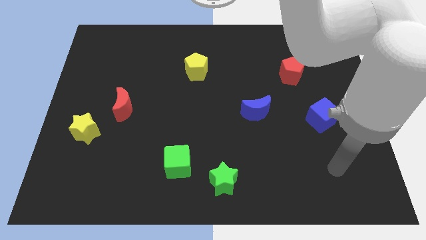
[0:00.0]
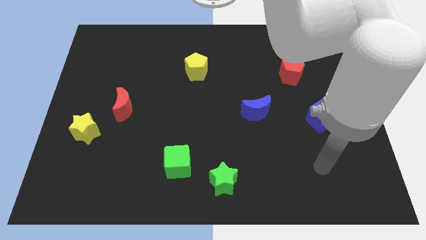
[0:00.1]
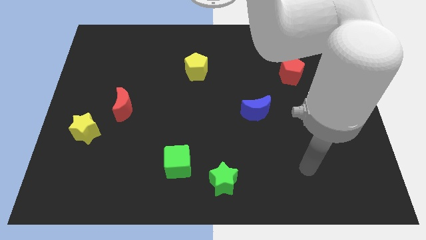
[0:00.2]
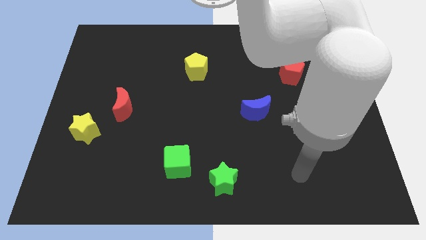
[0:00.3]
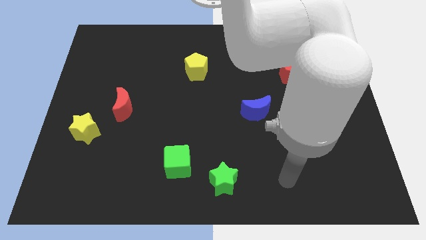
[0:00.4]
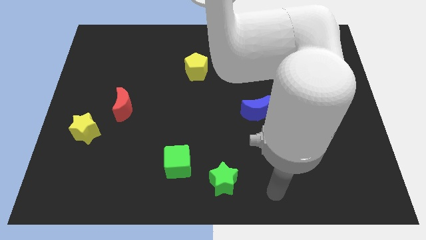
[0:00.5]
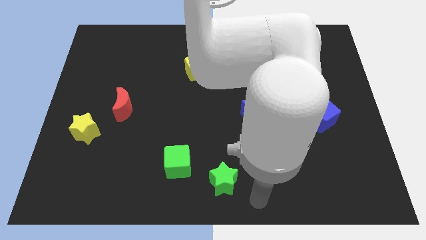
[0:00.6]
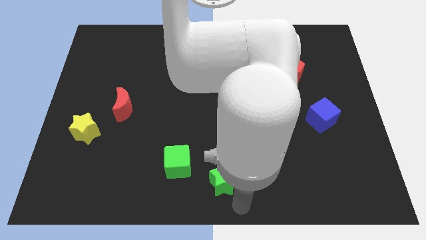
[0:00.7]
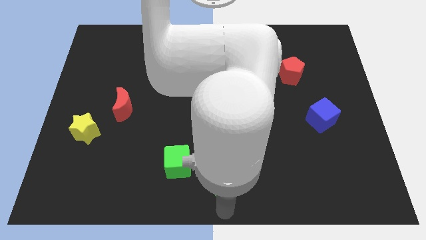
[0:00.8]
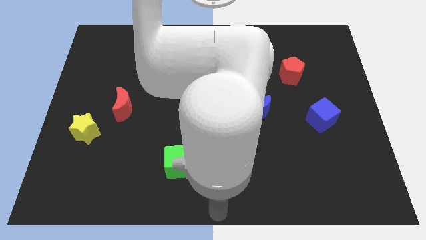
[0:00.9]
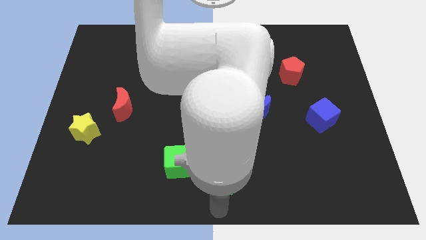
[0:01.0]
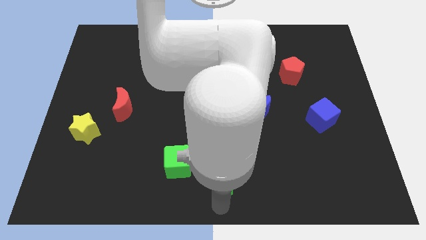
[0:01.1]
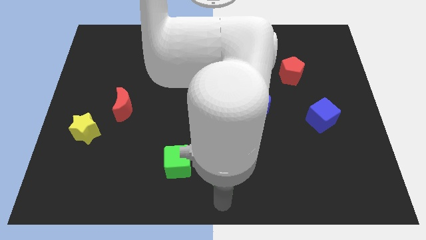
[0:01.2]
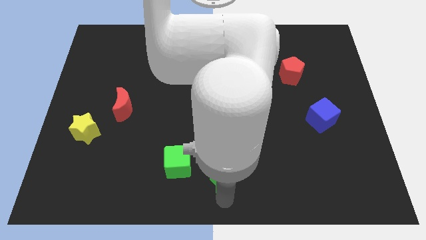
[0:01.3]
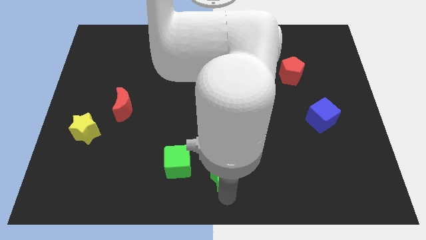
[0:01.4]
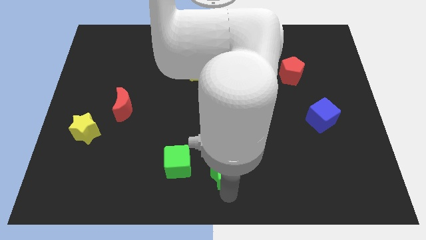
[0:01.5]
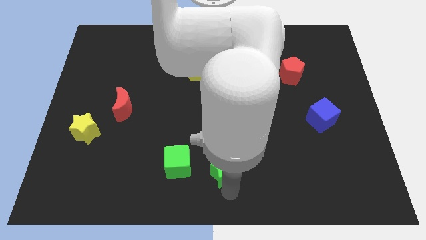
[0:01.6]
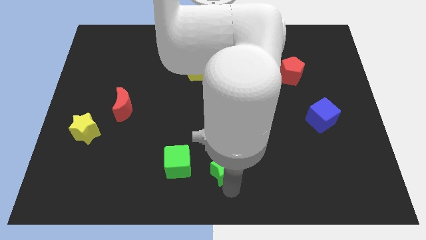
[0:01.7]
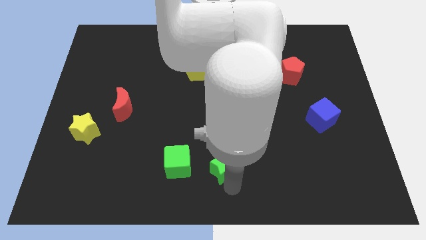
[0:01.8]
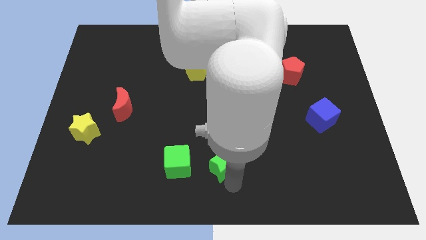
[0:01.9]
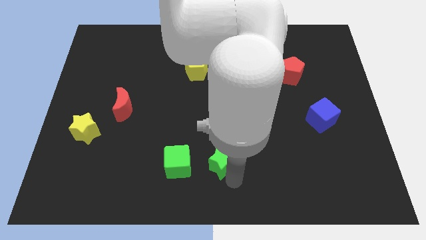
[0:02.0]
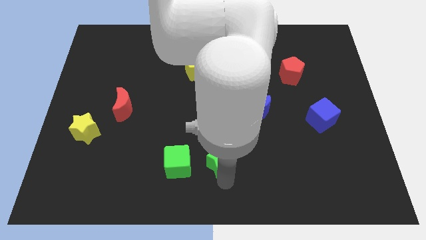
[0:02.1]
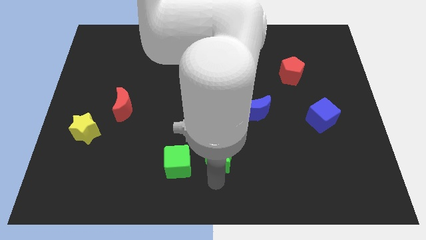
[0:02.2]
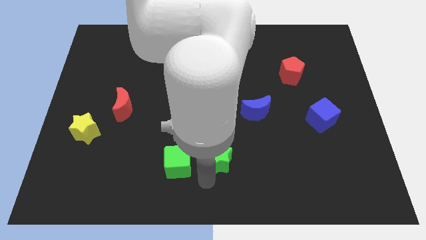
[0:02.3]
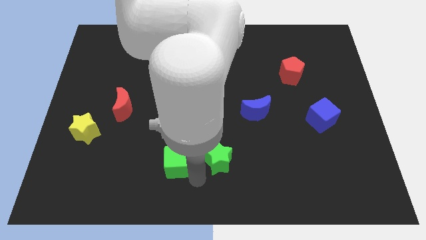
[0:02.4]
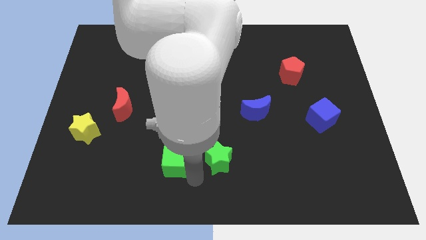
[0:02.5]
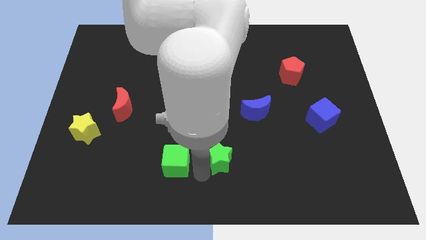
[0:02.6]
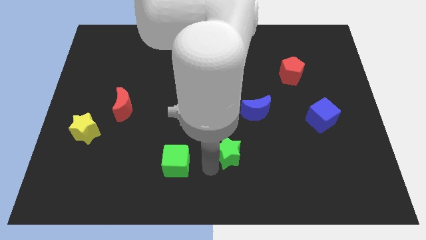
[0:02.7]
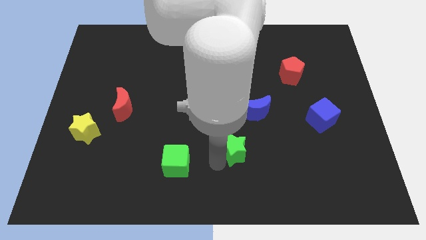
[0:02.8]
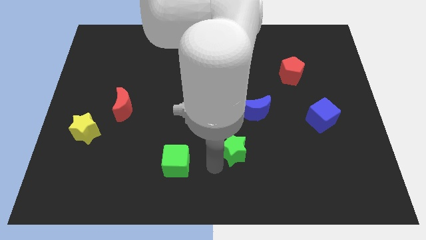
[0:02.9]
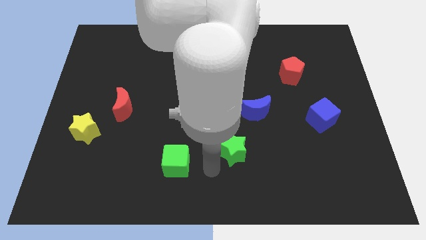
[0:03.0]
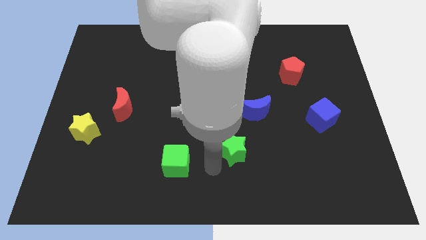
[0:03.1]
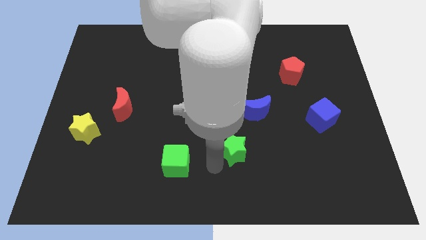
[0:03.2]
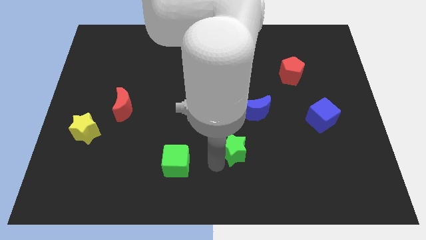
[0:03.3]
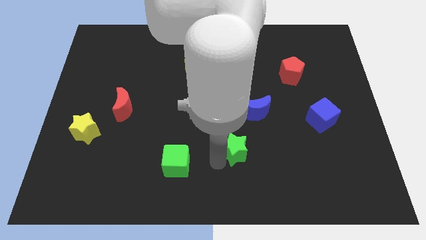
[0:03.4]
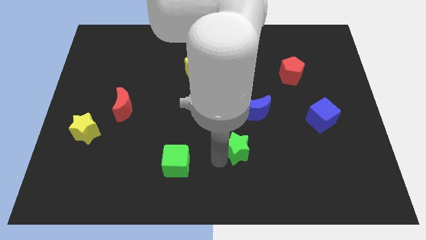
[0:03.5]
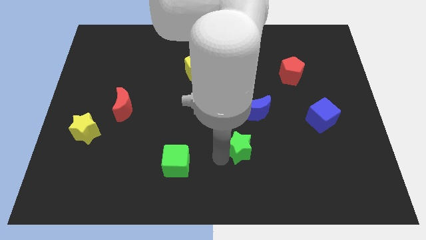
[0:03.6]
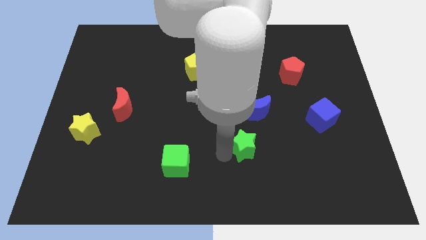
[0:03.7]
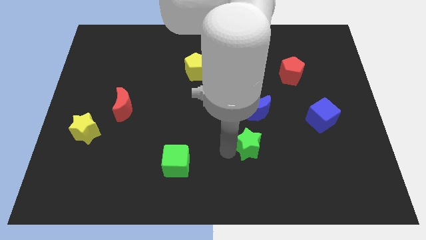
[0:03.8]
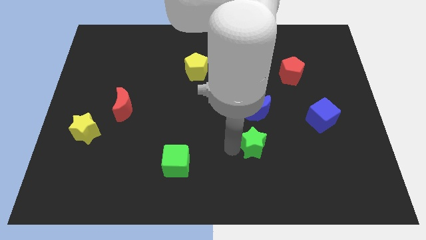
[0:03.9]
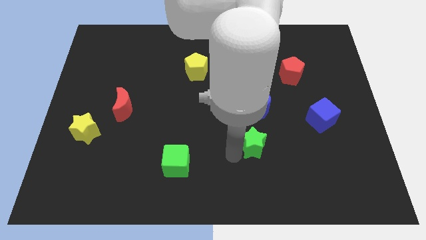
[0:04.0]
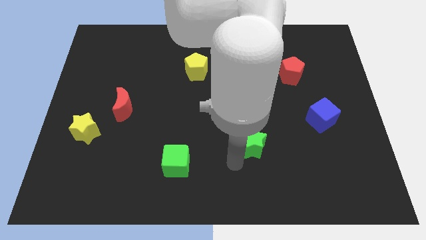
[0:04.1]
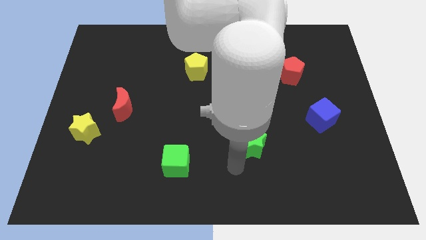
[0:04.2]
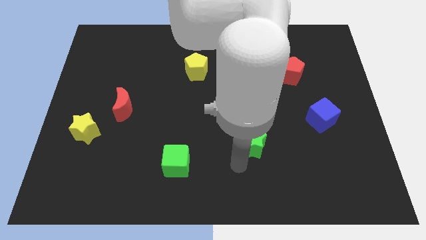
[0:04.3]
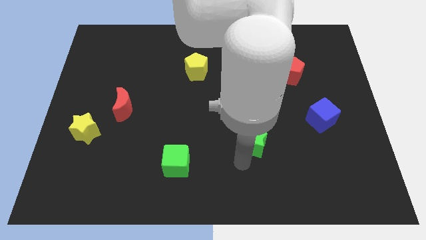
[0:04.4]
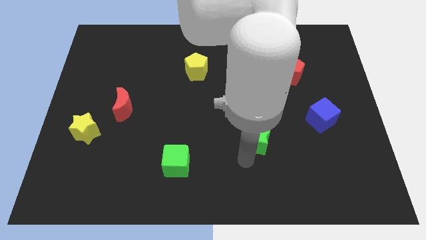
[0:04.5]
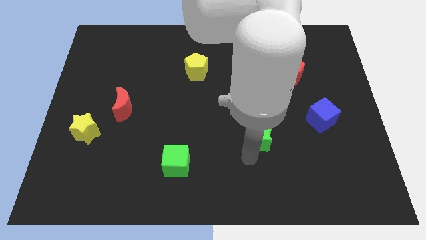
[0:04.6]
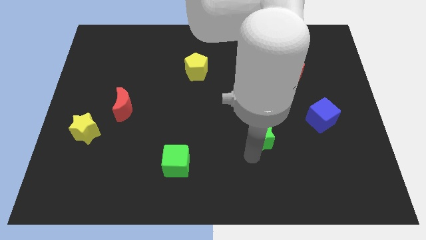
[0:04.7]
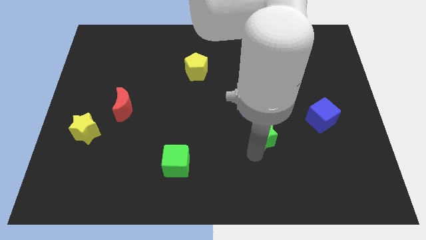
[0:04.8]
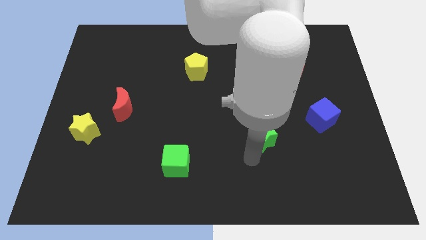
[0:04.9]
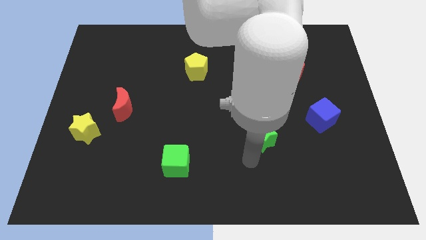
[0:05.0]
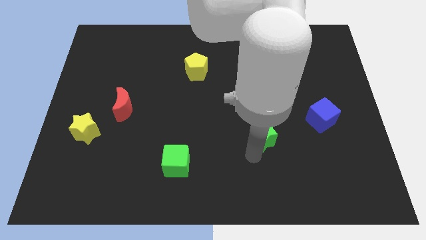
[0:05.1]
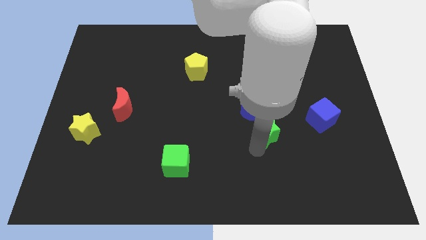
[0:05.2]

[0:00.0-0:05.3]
put the green star to the left side of the blue cube
